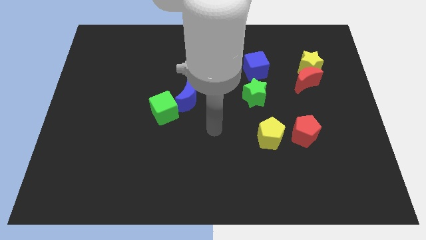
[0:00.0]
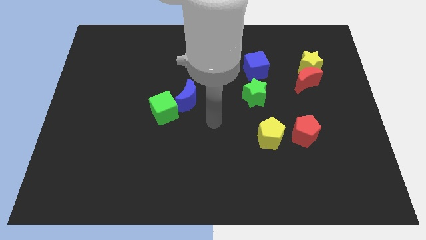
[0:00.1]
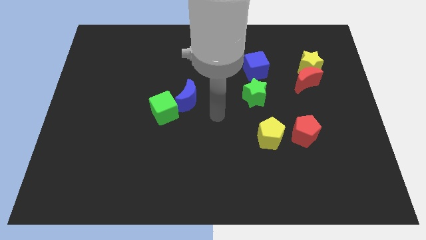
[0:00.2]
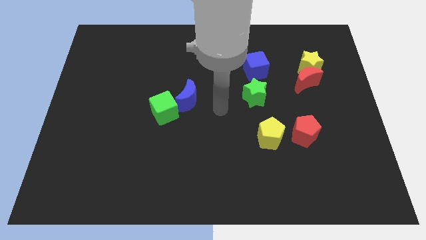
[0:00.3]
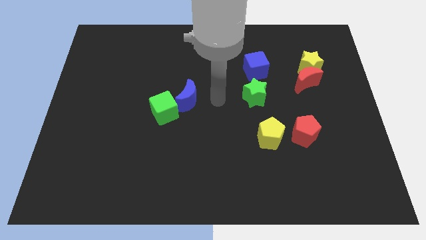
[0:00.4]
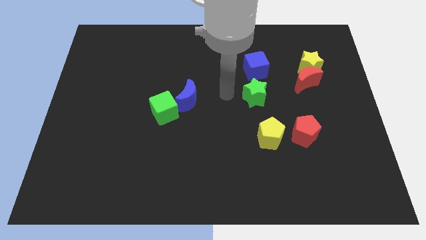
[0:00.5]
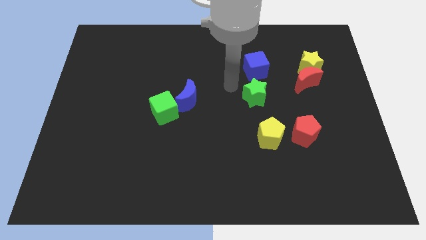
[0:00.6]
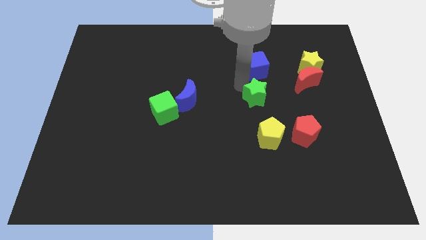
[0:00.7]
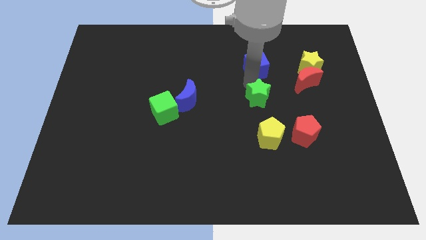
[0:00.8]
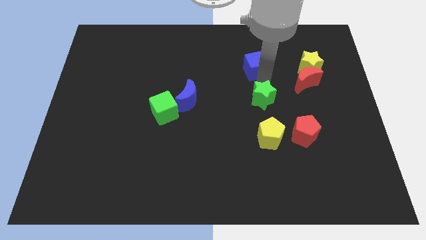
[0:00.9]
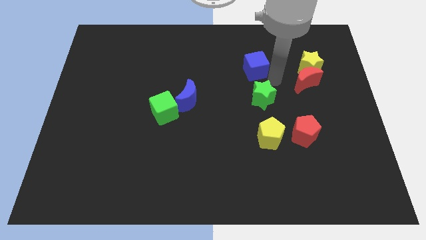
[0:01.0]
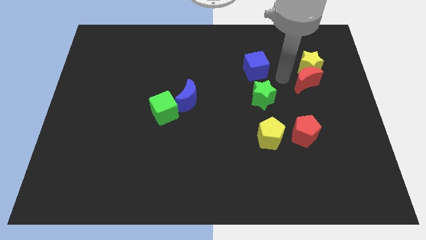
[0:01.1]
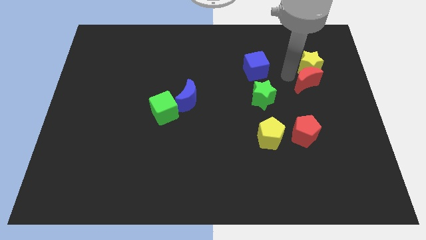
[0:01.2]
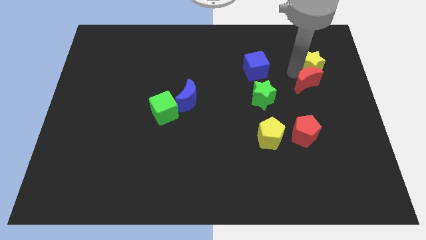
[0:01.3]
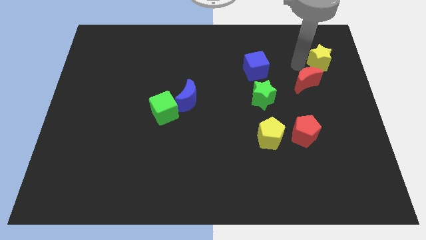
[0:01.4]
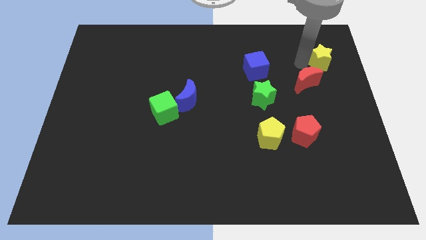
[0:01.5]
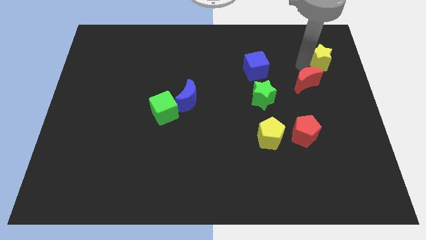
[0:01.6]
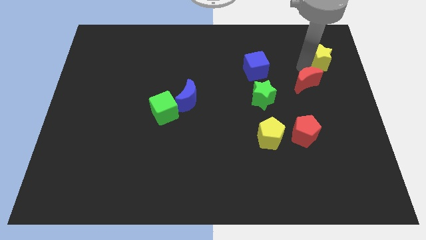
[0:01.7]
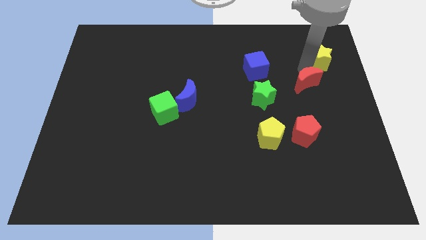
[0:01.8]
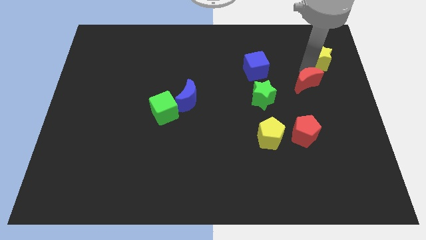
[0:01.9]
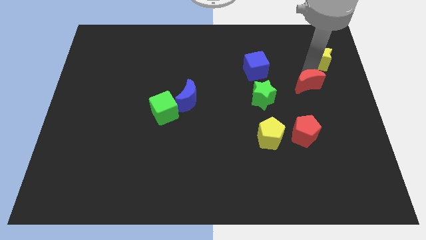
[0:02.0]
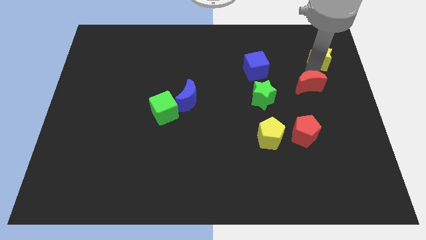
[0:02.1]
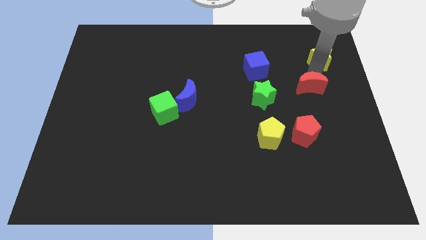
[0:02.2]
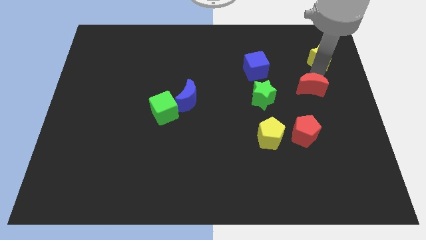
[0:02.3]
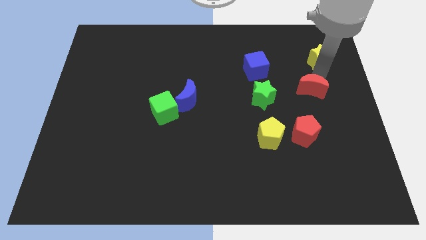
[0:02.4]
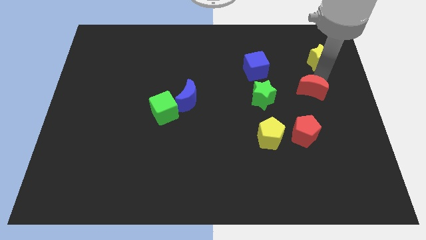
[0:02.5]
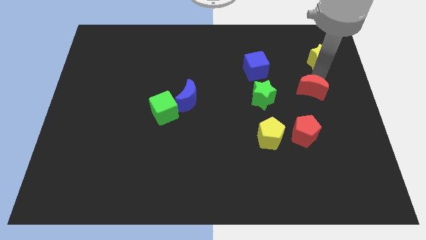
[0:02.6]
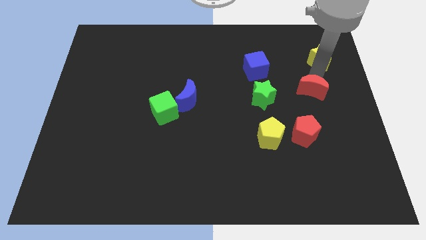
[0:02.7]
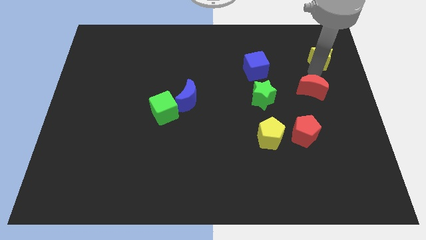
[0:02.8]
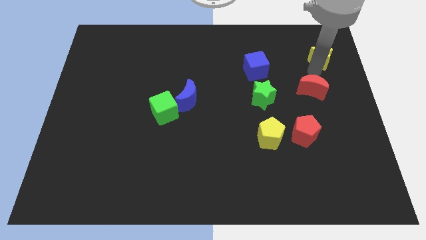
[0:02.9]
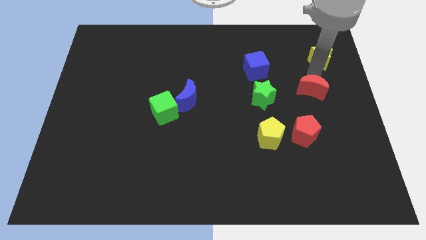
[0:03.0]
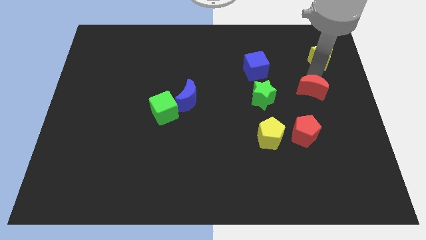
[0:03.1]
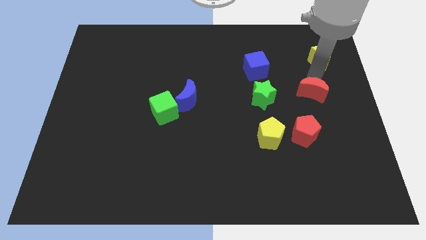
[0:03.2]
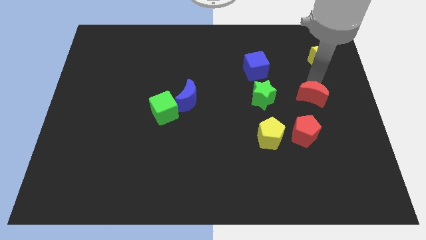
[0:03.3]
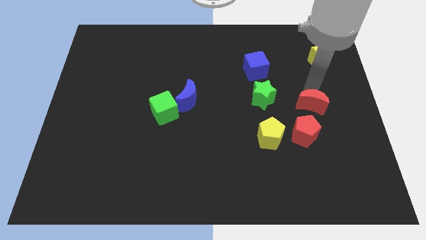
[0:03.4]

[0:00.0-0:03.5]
slightly push the red moon downwards

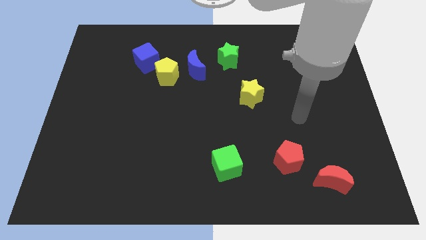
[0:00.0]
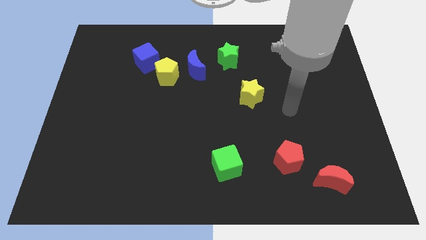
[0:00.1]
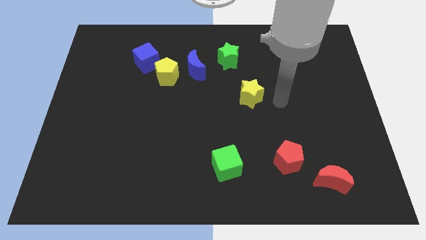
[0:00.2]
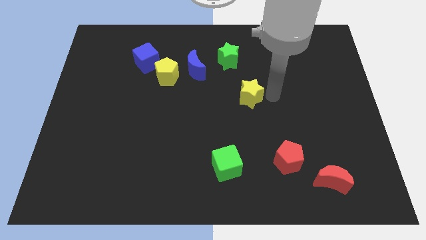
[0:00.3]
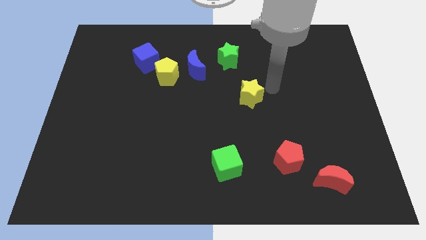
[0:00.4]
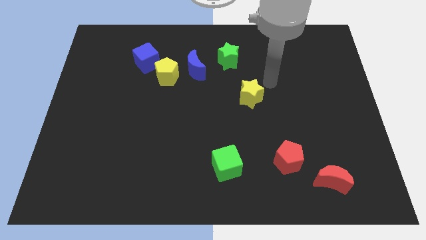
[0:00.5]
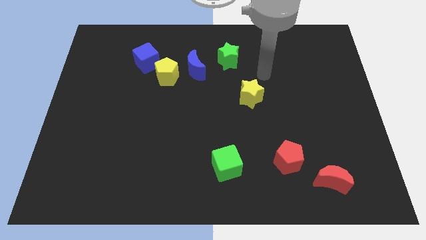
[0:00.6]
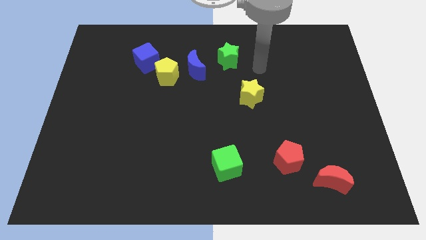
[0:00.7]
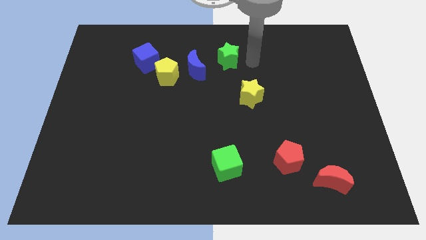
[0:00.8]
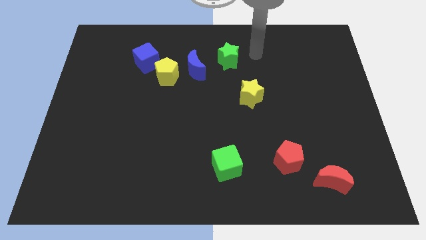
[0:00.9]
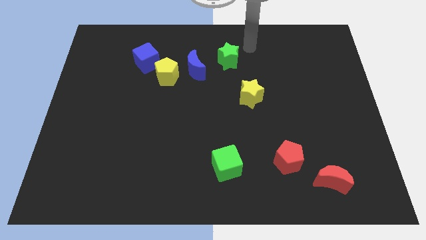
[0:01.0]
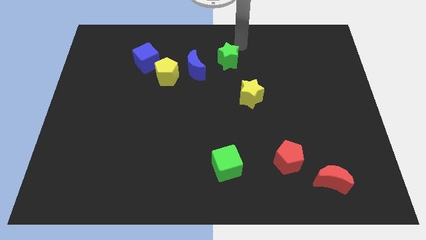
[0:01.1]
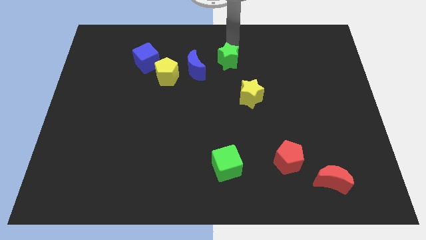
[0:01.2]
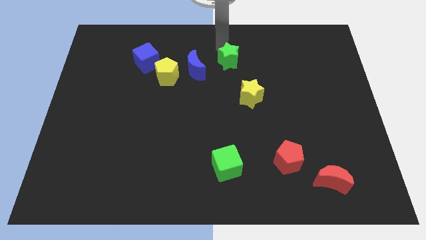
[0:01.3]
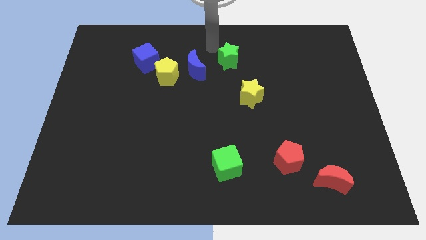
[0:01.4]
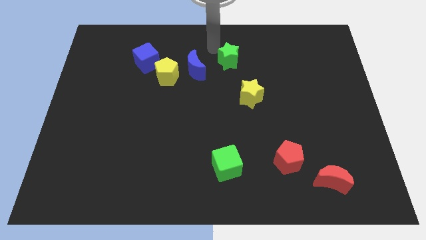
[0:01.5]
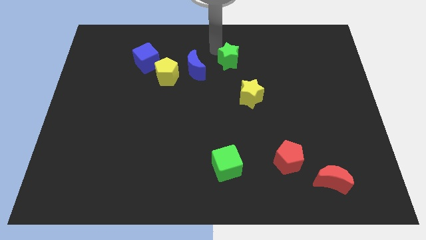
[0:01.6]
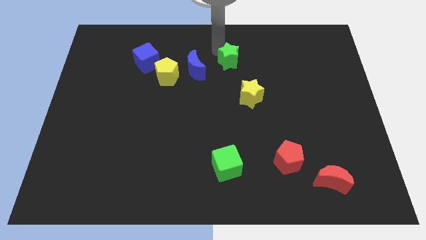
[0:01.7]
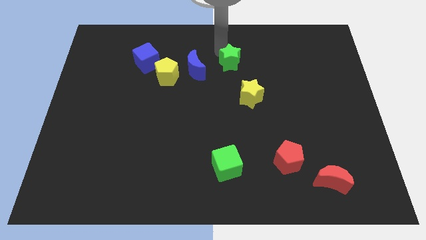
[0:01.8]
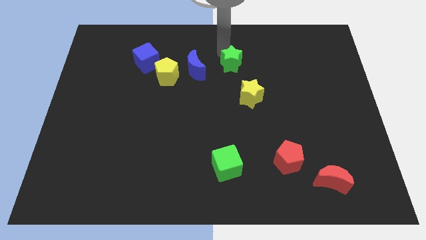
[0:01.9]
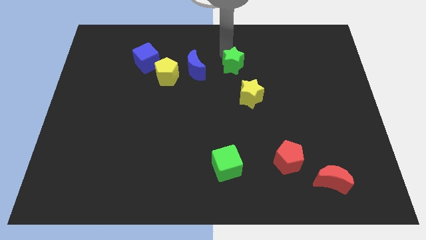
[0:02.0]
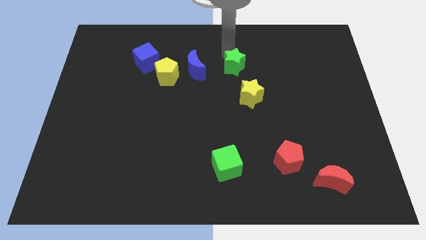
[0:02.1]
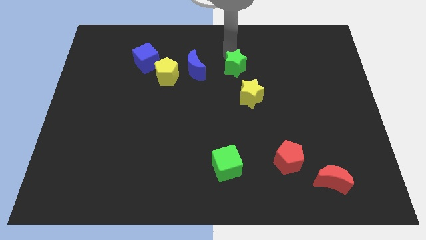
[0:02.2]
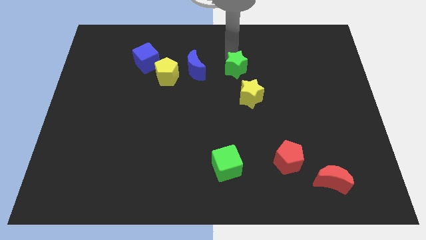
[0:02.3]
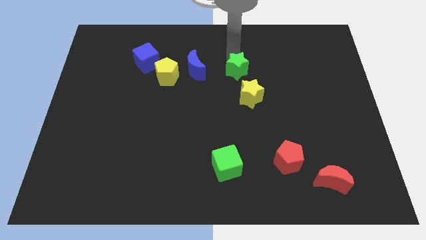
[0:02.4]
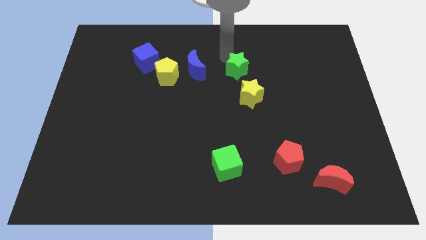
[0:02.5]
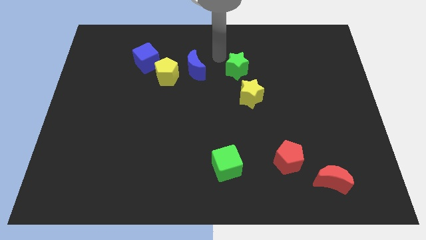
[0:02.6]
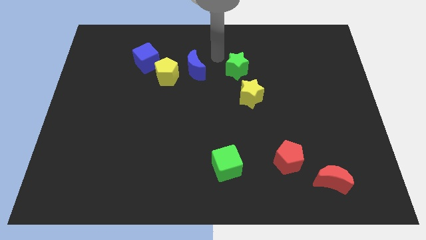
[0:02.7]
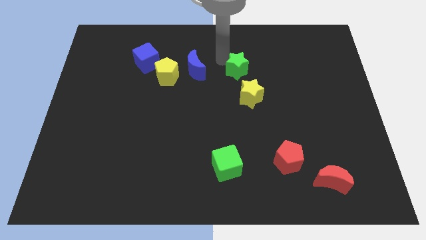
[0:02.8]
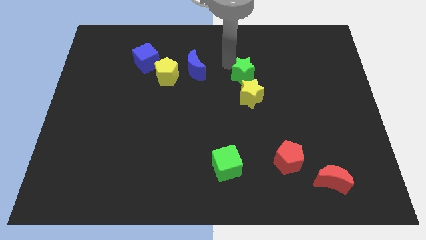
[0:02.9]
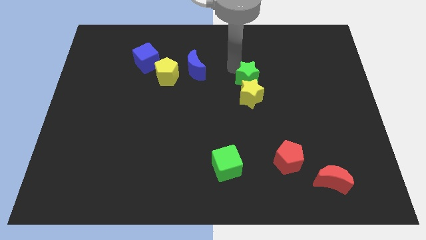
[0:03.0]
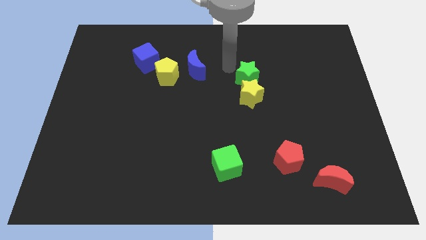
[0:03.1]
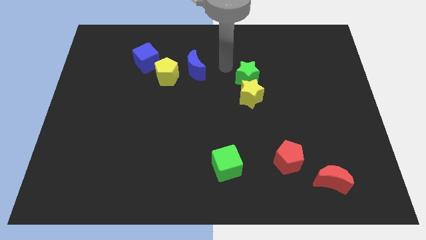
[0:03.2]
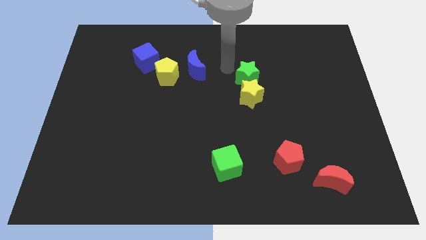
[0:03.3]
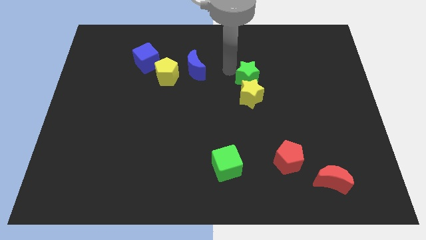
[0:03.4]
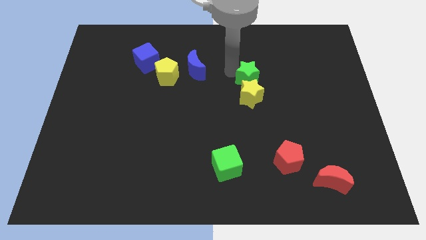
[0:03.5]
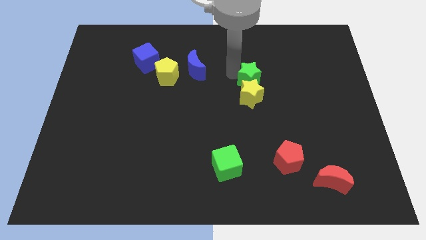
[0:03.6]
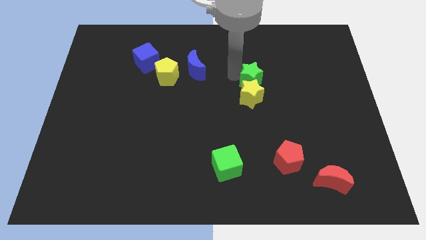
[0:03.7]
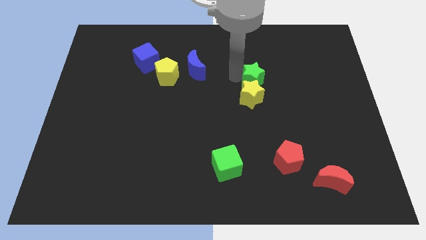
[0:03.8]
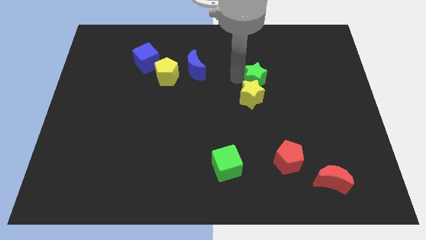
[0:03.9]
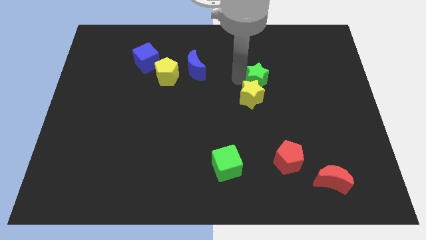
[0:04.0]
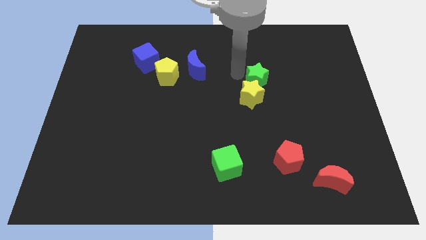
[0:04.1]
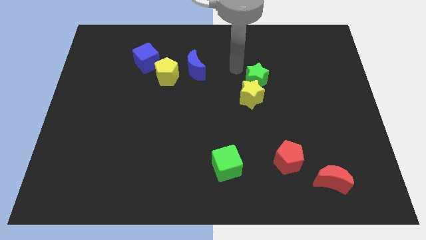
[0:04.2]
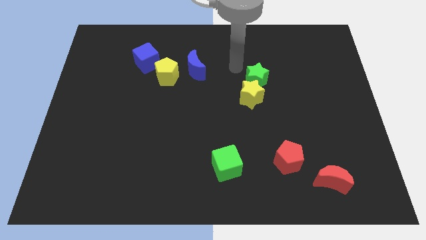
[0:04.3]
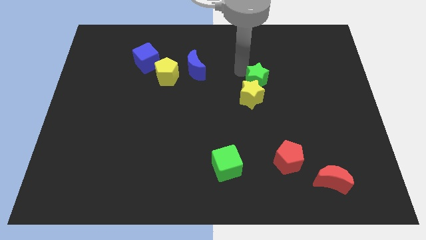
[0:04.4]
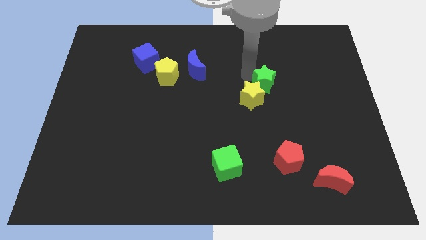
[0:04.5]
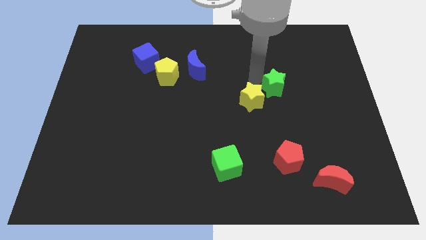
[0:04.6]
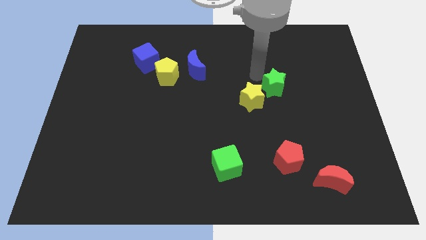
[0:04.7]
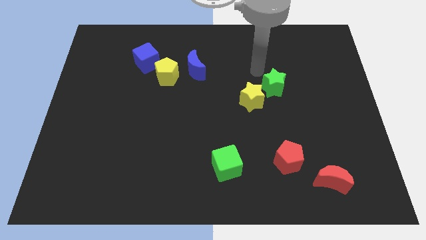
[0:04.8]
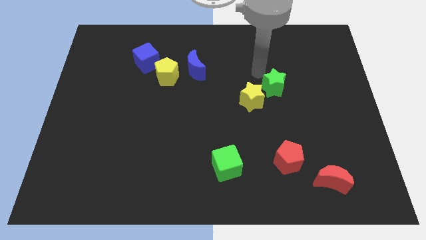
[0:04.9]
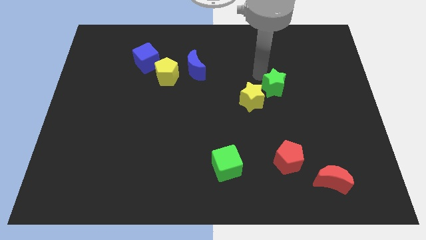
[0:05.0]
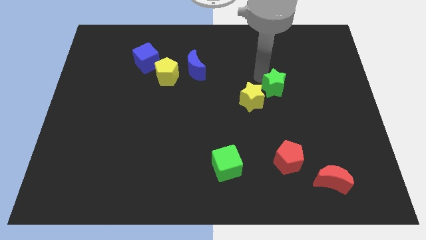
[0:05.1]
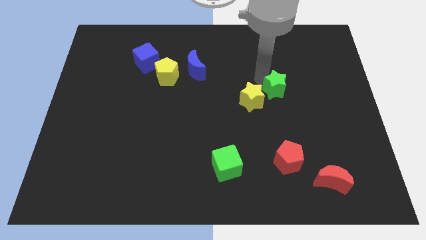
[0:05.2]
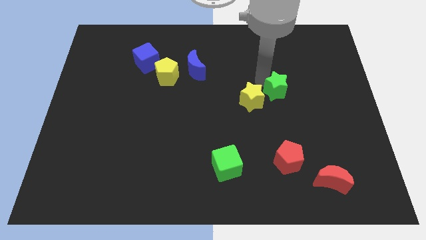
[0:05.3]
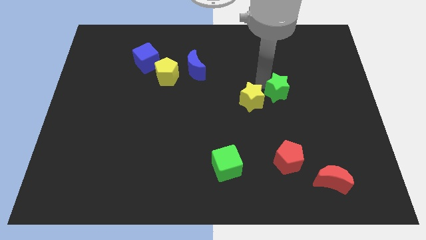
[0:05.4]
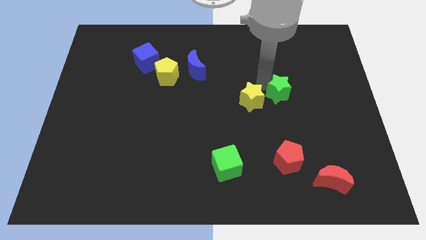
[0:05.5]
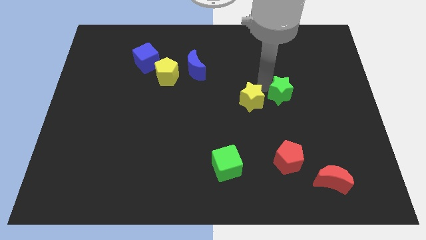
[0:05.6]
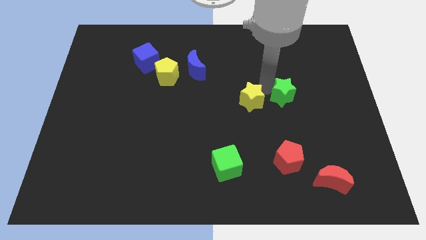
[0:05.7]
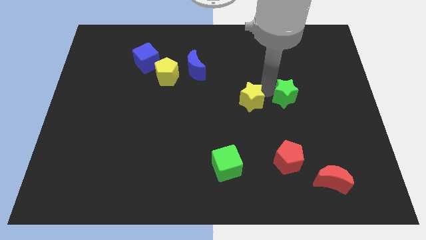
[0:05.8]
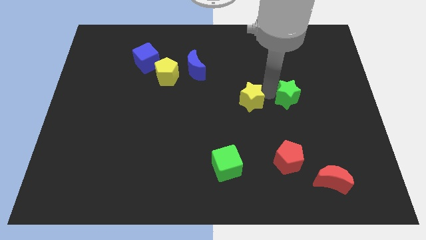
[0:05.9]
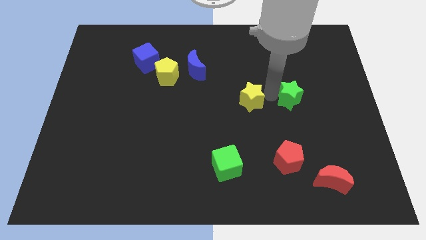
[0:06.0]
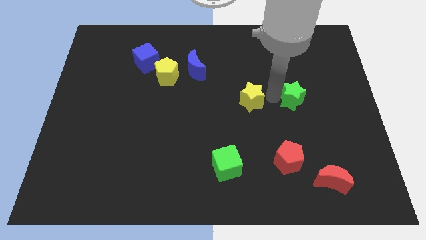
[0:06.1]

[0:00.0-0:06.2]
slide the green star downwards and right
